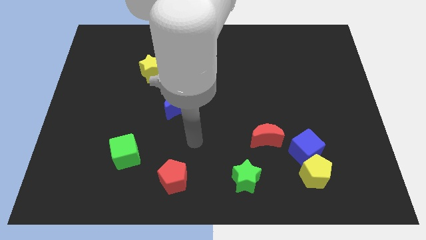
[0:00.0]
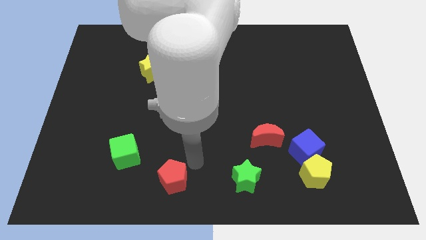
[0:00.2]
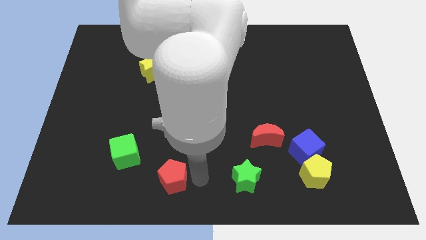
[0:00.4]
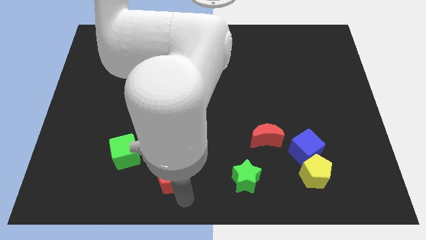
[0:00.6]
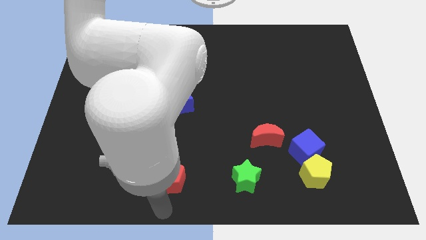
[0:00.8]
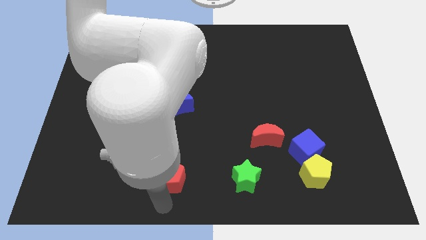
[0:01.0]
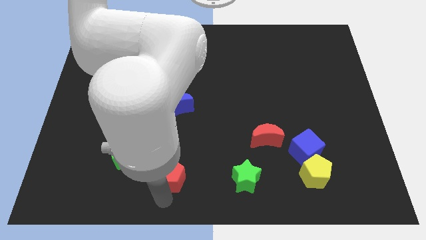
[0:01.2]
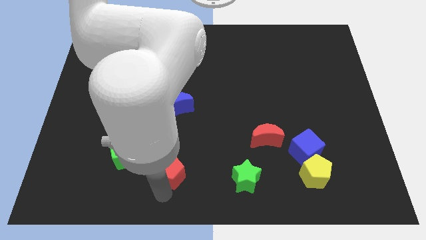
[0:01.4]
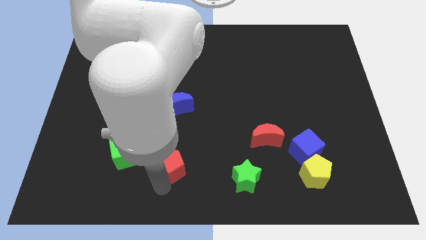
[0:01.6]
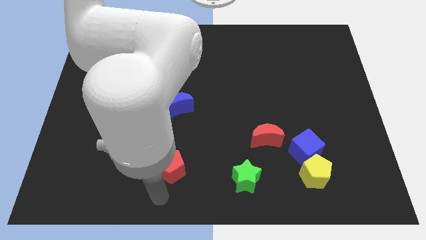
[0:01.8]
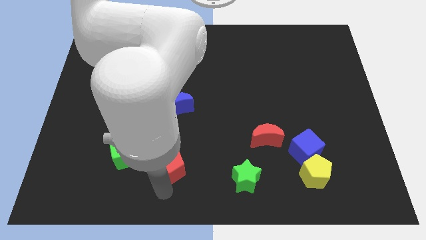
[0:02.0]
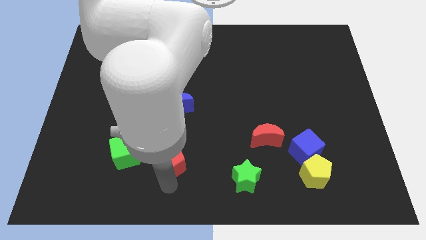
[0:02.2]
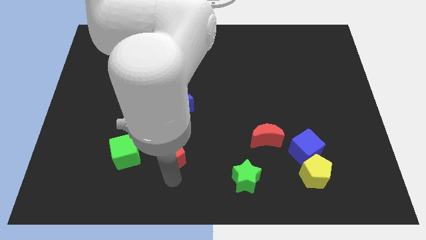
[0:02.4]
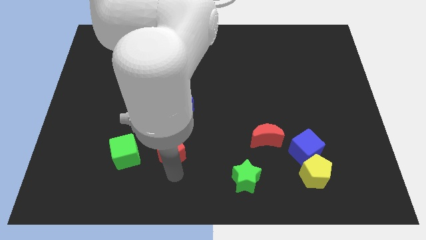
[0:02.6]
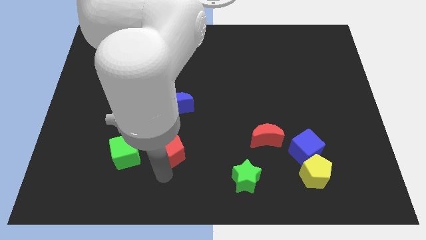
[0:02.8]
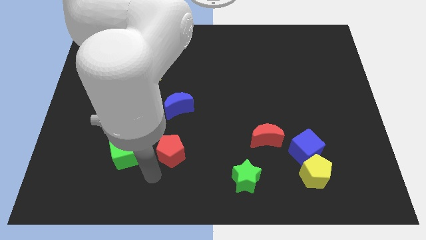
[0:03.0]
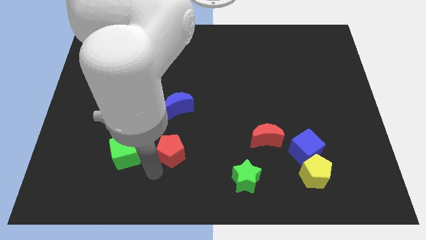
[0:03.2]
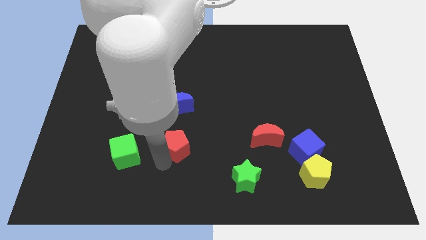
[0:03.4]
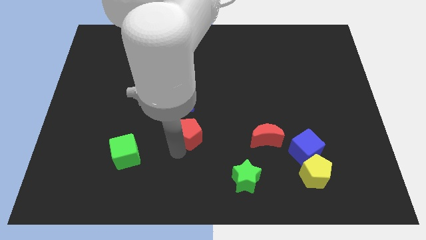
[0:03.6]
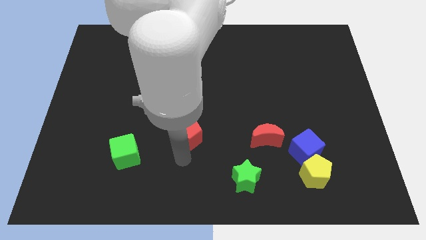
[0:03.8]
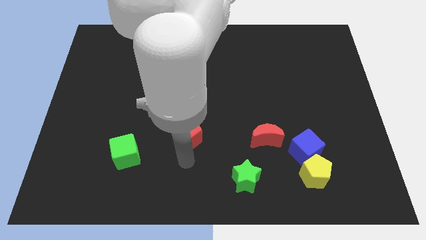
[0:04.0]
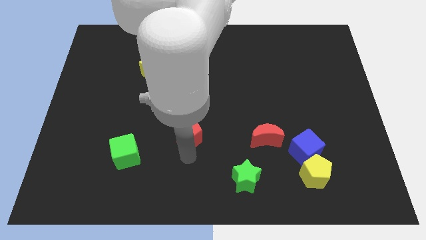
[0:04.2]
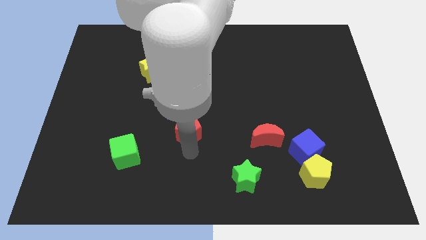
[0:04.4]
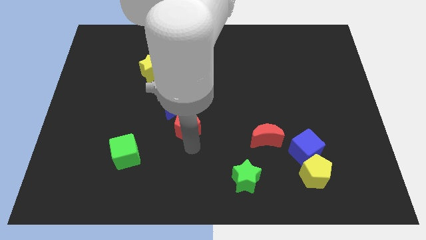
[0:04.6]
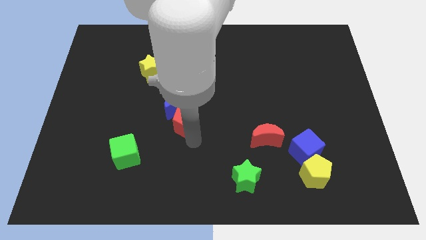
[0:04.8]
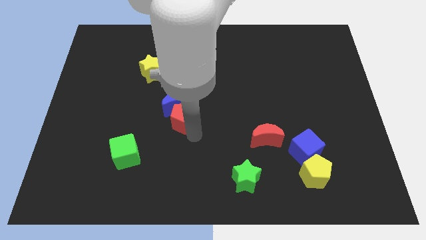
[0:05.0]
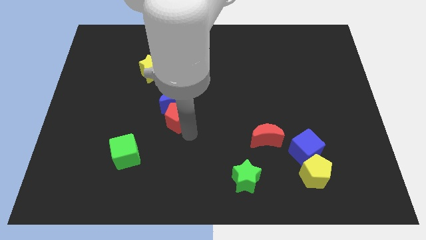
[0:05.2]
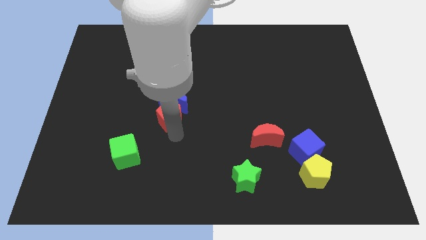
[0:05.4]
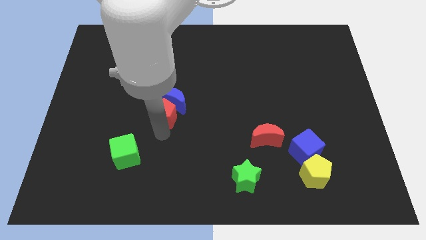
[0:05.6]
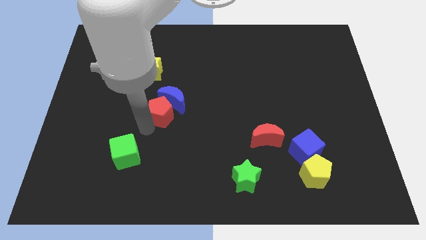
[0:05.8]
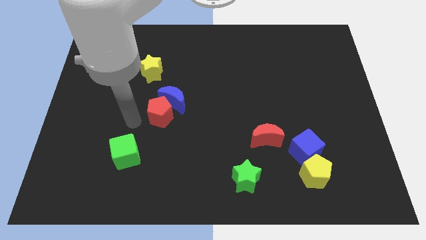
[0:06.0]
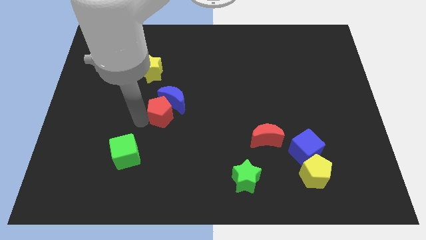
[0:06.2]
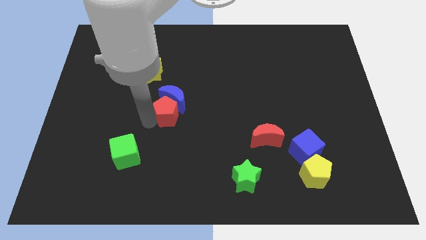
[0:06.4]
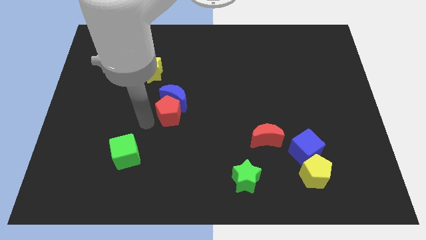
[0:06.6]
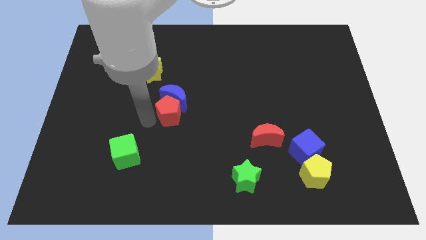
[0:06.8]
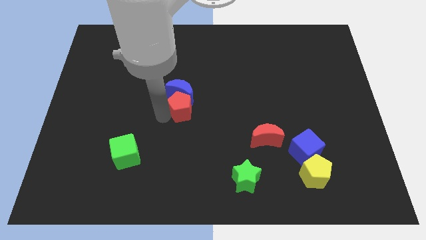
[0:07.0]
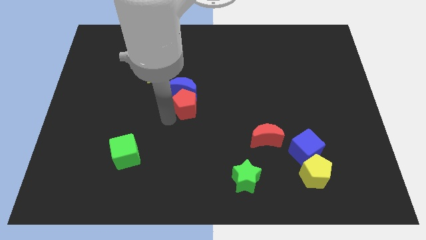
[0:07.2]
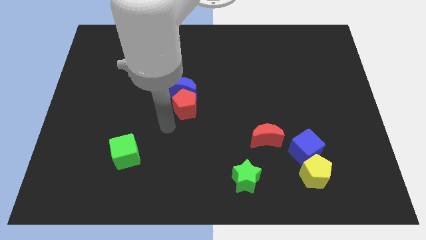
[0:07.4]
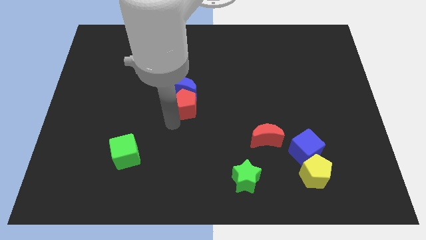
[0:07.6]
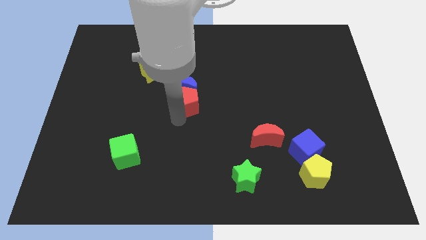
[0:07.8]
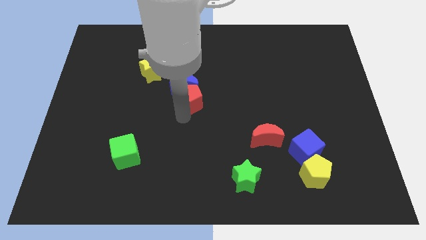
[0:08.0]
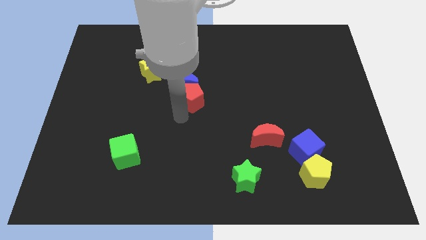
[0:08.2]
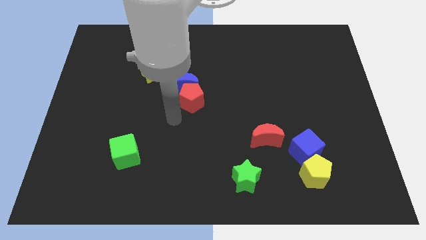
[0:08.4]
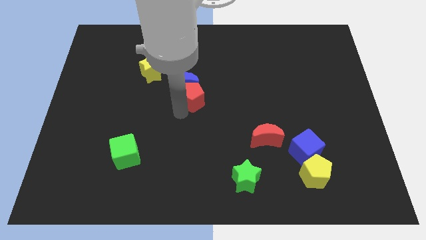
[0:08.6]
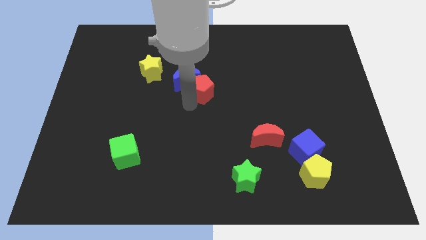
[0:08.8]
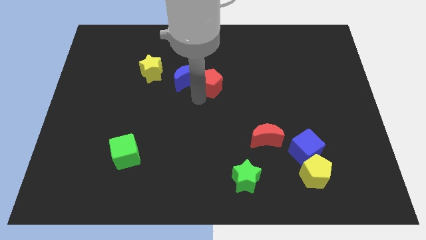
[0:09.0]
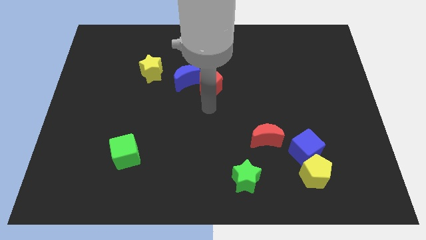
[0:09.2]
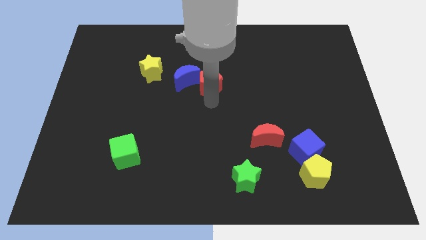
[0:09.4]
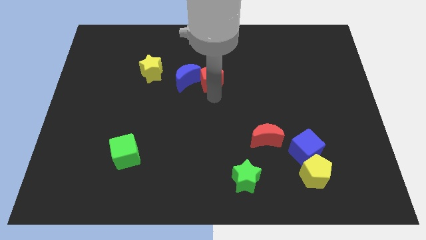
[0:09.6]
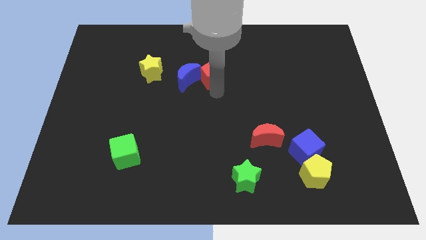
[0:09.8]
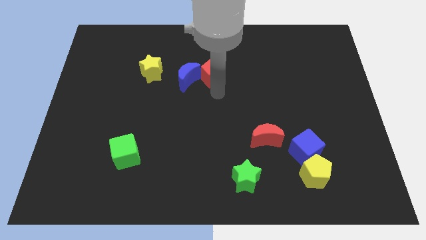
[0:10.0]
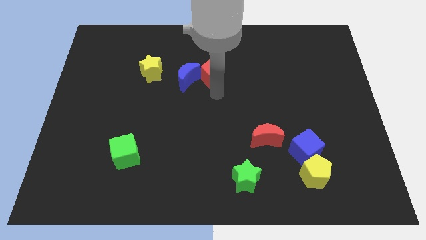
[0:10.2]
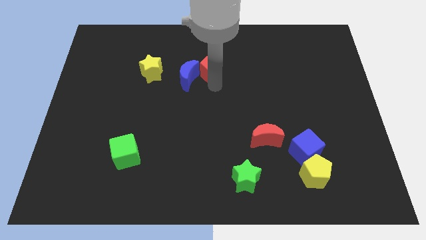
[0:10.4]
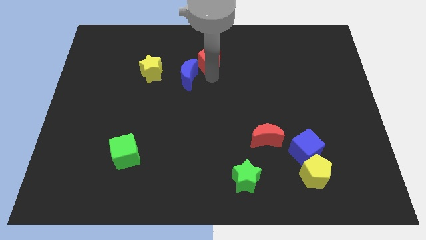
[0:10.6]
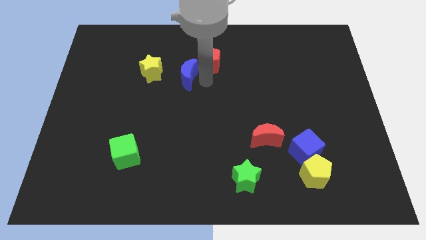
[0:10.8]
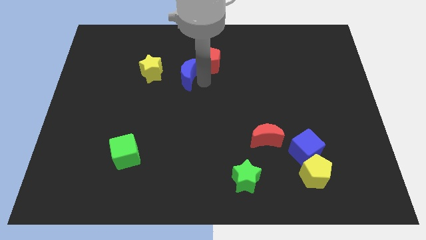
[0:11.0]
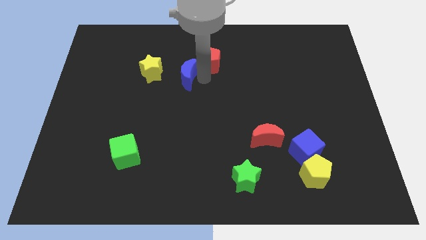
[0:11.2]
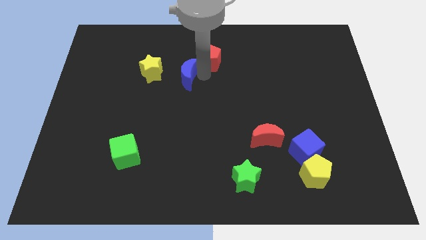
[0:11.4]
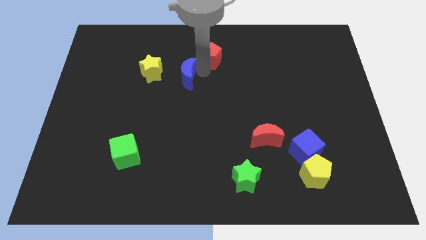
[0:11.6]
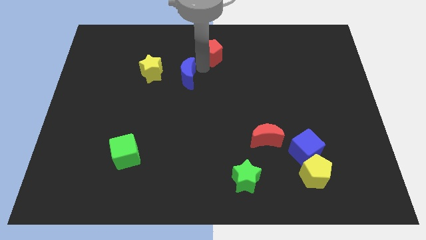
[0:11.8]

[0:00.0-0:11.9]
move the red pentagon to the towards your base

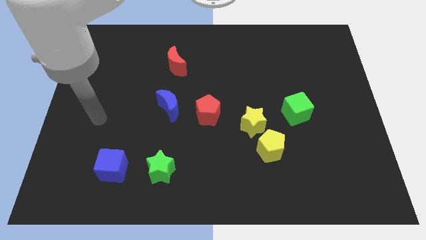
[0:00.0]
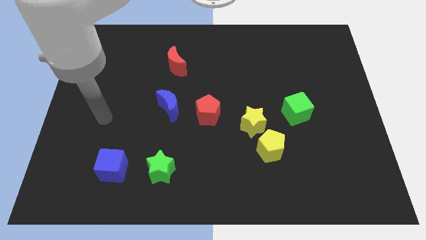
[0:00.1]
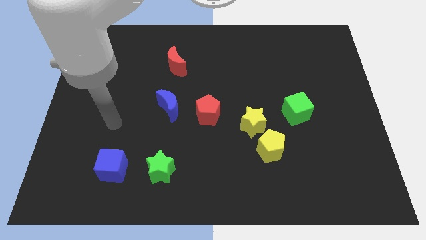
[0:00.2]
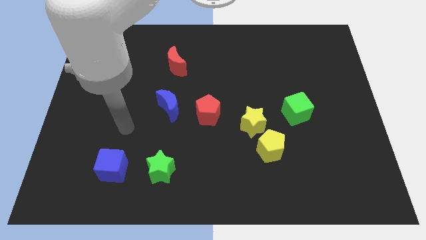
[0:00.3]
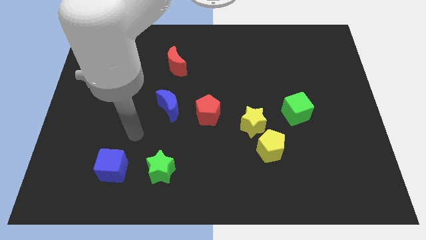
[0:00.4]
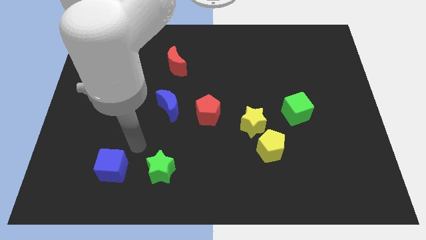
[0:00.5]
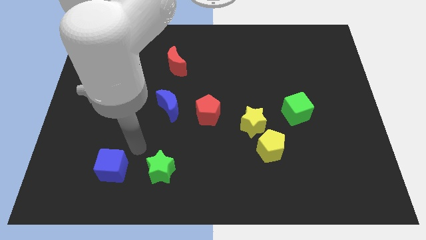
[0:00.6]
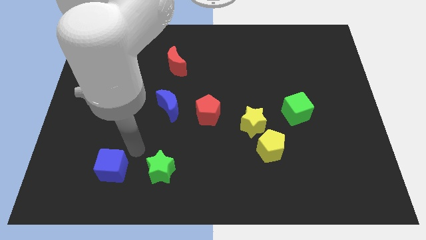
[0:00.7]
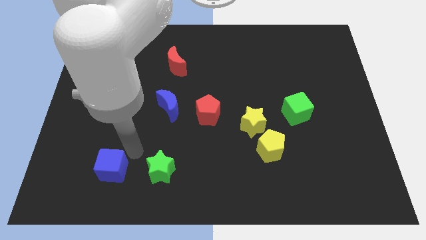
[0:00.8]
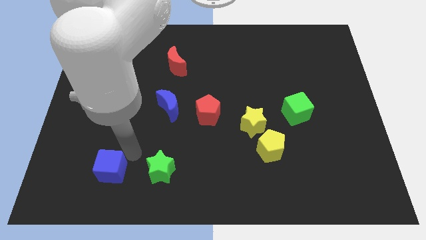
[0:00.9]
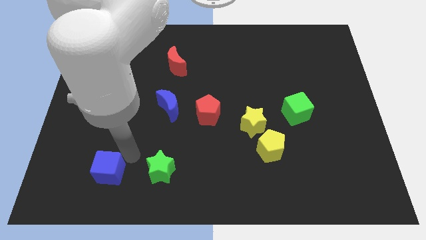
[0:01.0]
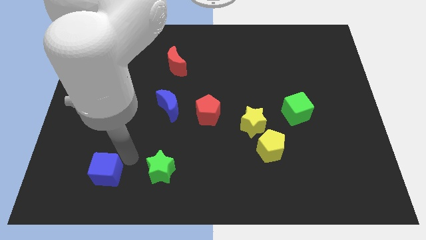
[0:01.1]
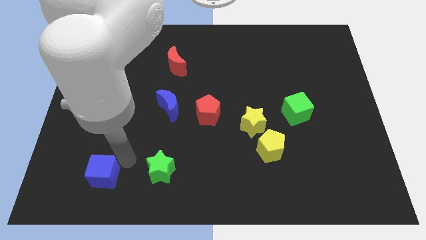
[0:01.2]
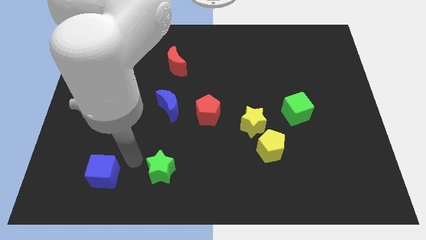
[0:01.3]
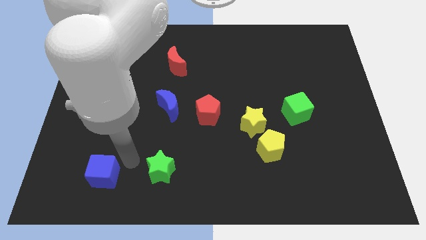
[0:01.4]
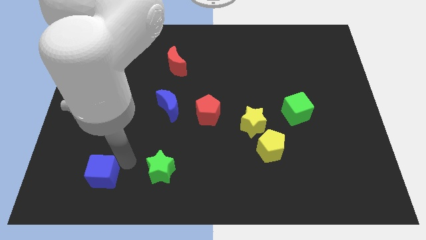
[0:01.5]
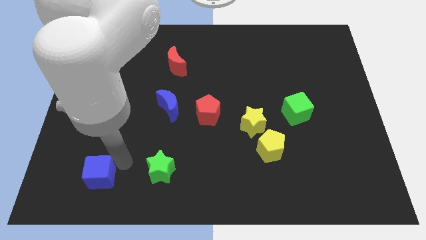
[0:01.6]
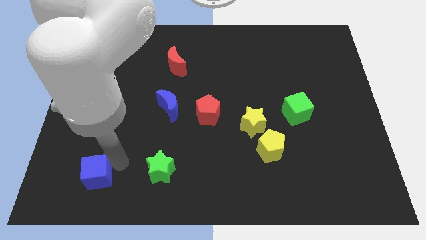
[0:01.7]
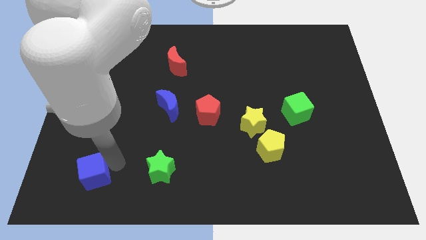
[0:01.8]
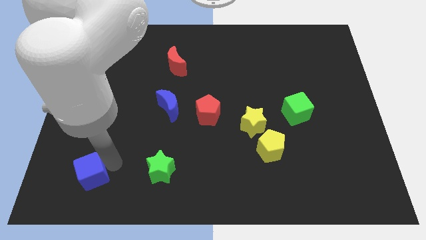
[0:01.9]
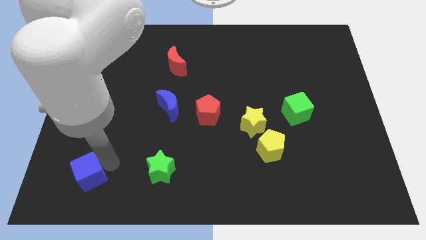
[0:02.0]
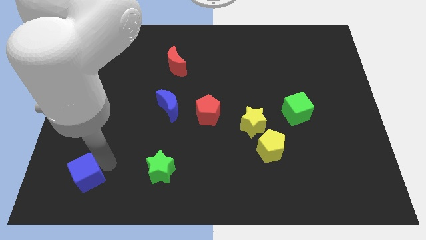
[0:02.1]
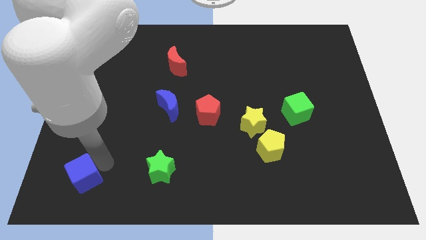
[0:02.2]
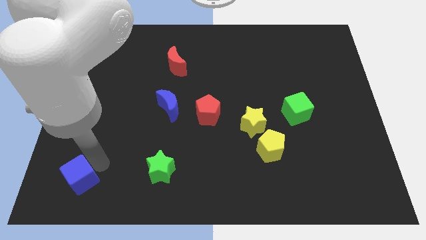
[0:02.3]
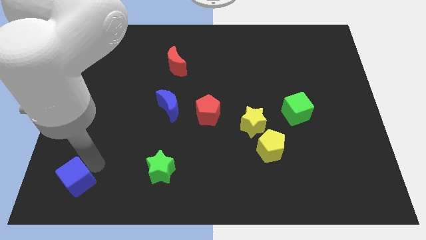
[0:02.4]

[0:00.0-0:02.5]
slide the blue cube to the bottom left corner
